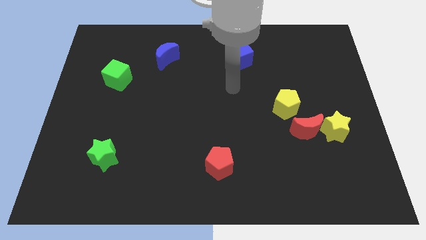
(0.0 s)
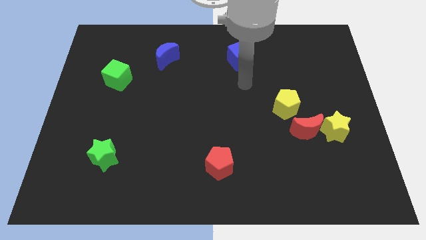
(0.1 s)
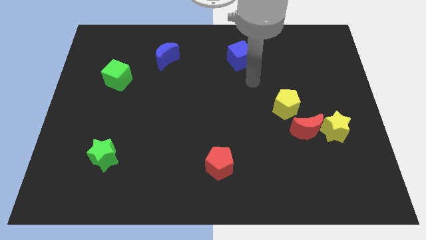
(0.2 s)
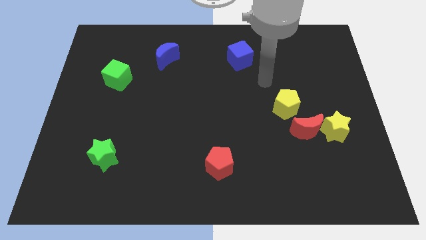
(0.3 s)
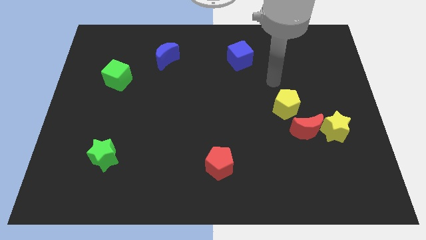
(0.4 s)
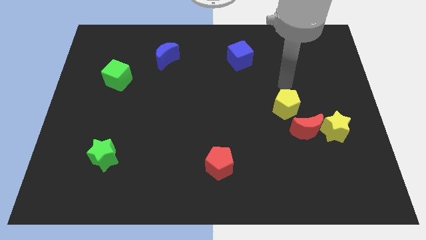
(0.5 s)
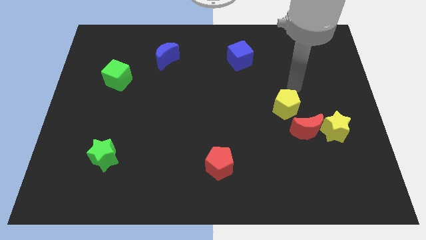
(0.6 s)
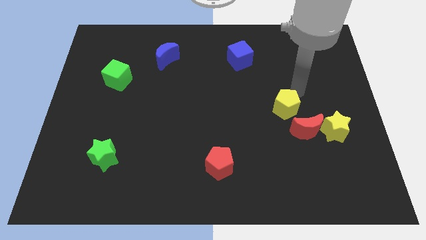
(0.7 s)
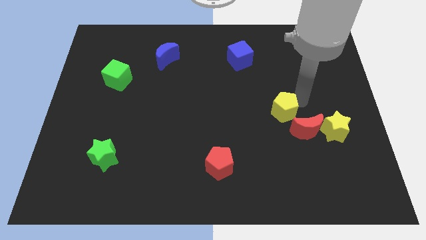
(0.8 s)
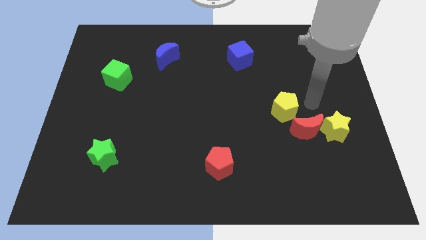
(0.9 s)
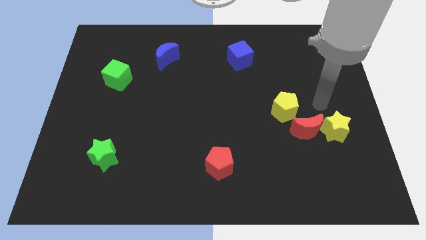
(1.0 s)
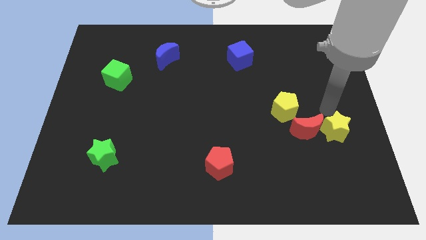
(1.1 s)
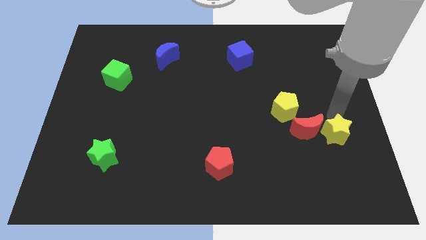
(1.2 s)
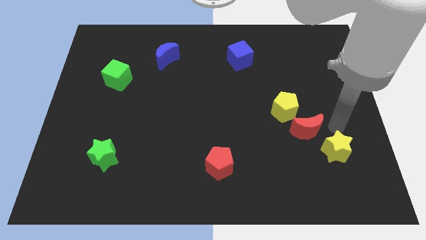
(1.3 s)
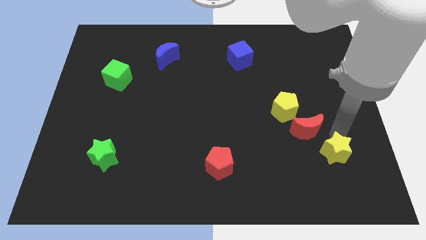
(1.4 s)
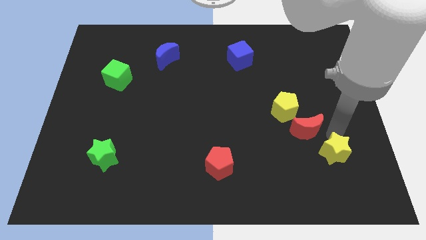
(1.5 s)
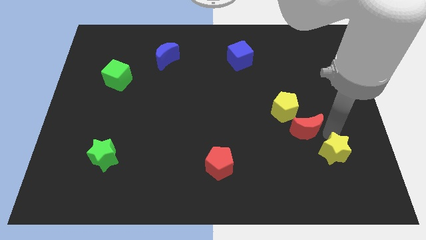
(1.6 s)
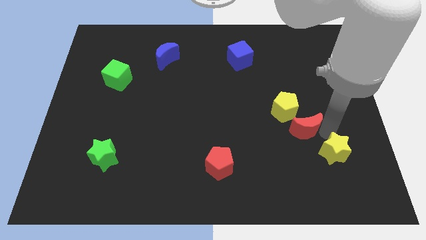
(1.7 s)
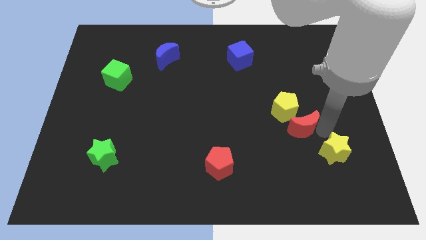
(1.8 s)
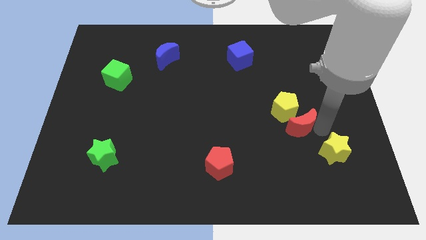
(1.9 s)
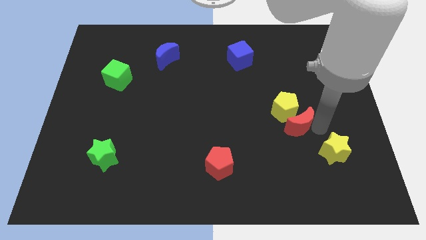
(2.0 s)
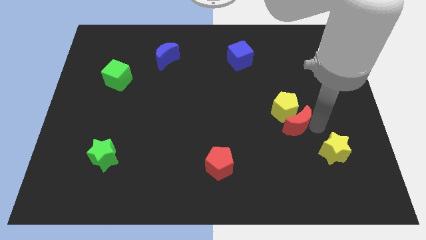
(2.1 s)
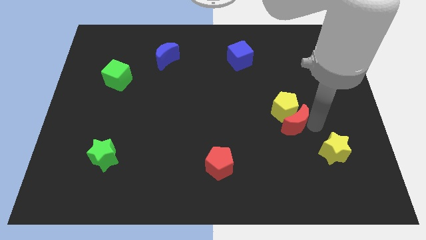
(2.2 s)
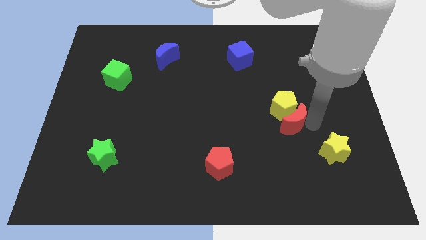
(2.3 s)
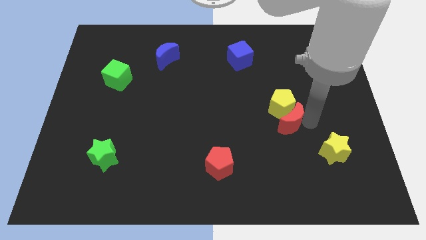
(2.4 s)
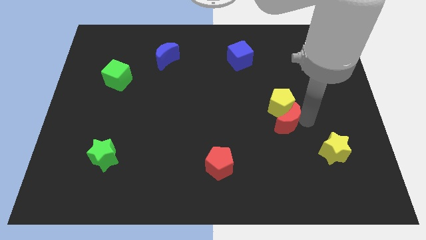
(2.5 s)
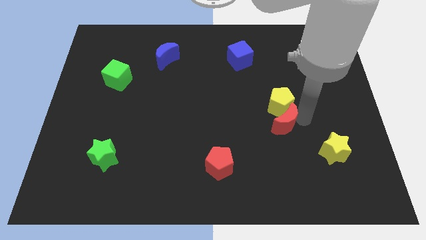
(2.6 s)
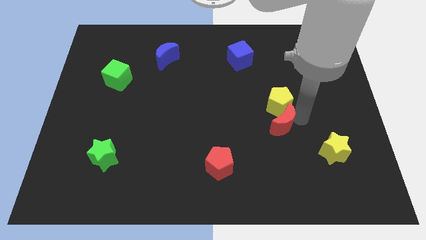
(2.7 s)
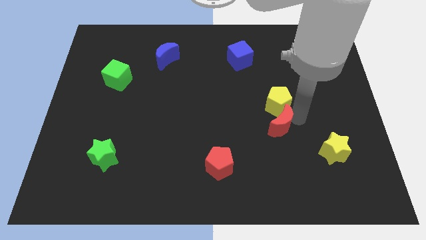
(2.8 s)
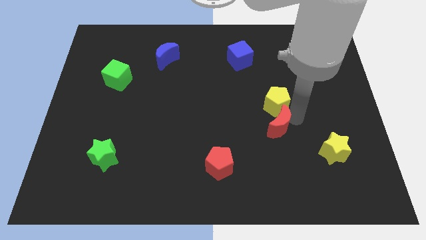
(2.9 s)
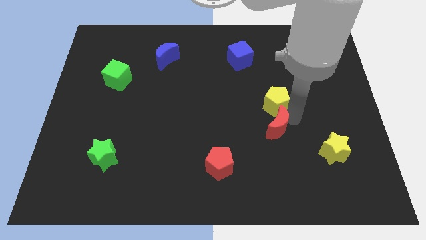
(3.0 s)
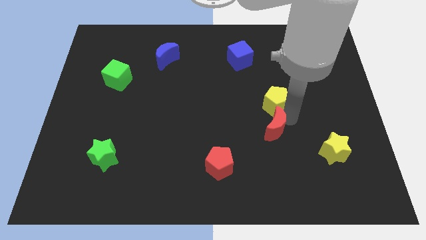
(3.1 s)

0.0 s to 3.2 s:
push the red moon a little bit to the left

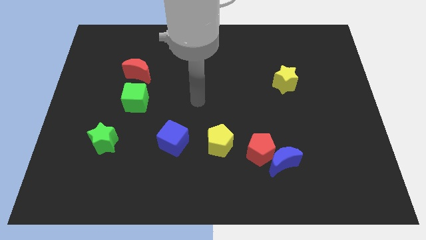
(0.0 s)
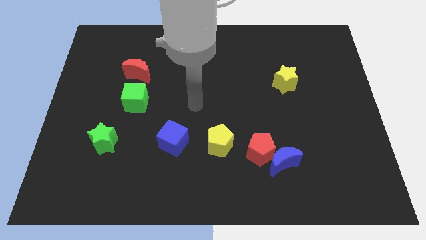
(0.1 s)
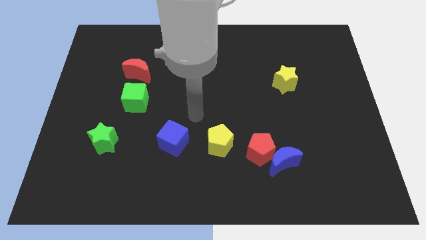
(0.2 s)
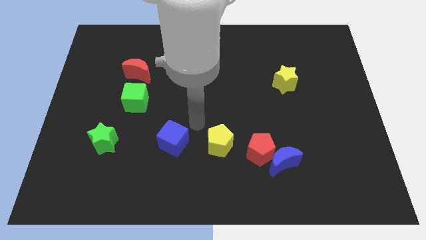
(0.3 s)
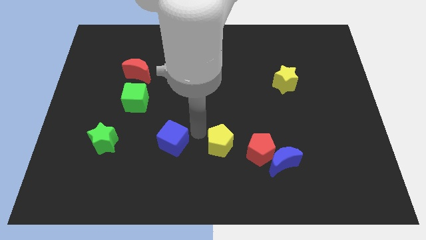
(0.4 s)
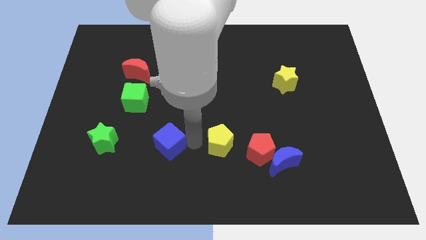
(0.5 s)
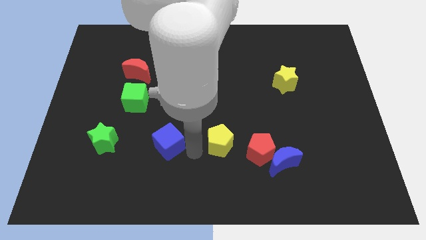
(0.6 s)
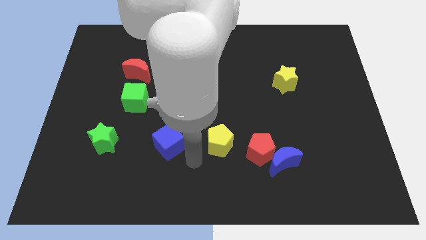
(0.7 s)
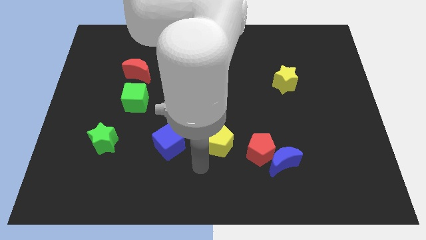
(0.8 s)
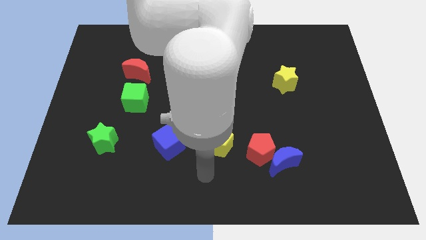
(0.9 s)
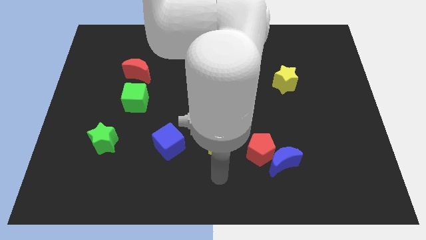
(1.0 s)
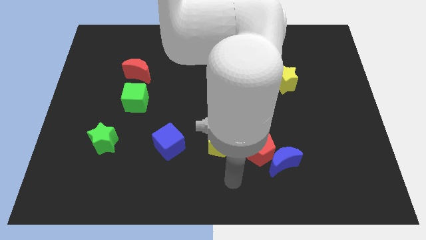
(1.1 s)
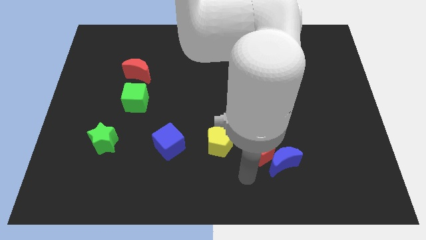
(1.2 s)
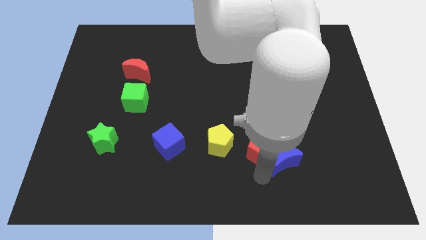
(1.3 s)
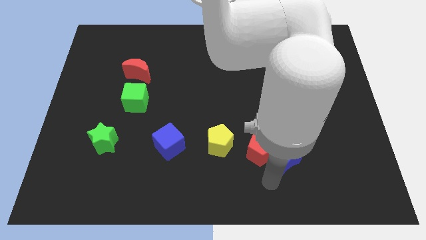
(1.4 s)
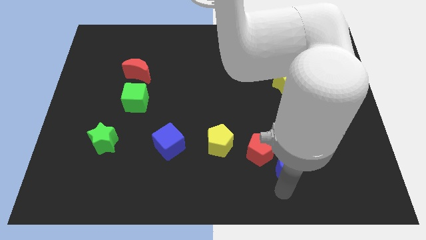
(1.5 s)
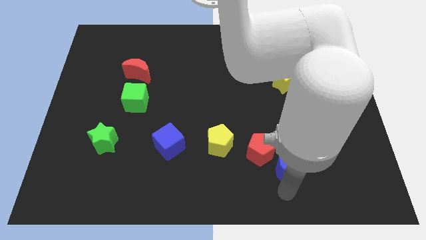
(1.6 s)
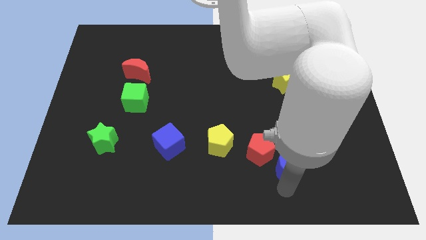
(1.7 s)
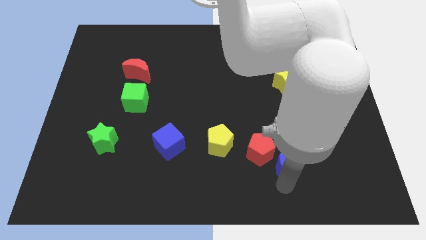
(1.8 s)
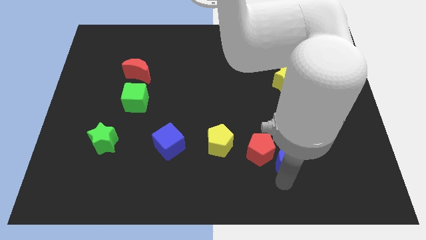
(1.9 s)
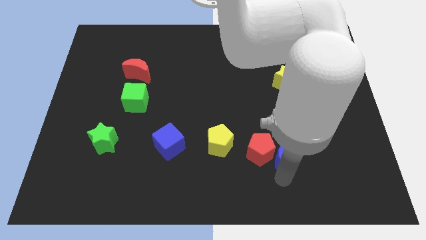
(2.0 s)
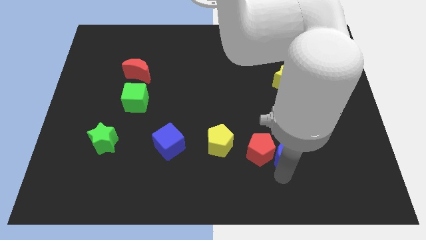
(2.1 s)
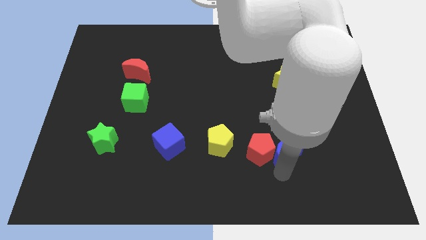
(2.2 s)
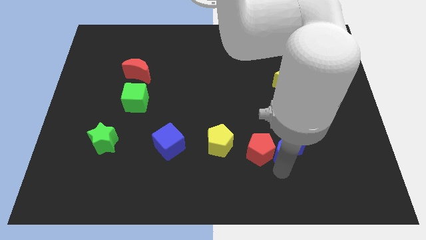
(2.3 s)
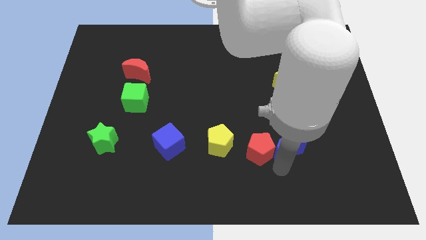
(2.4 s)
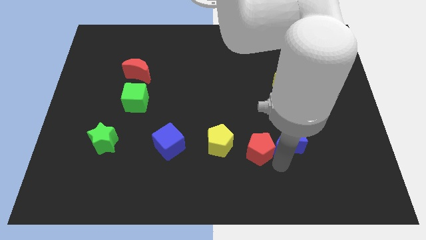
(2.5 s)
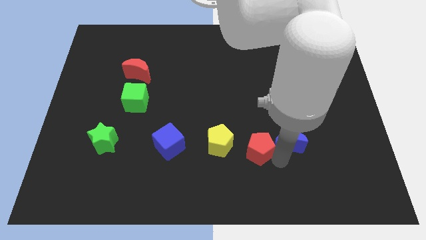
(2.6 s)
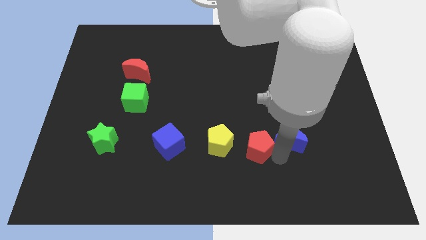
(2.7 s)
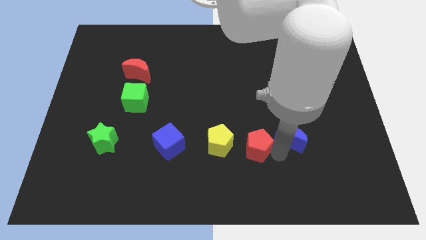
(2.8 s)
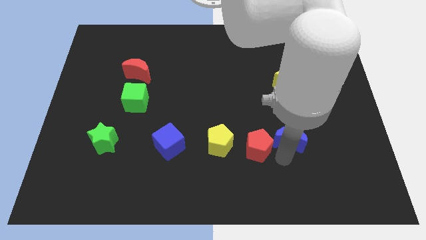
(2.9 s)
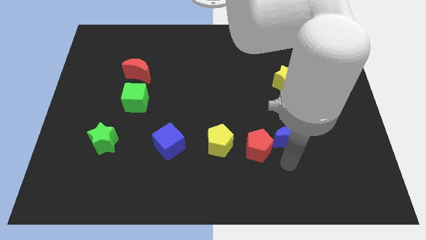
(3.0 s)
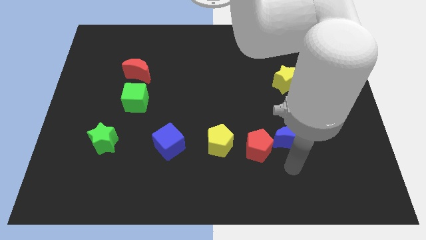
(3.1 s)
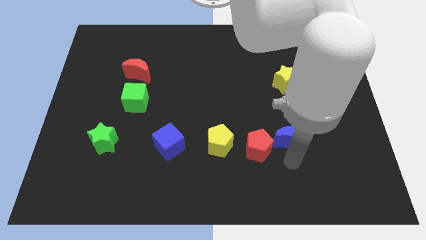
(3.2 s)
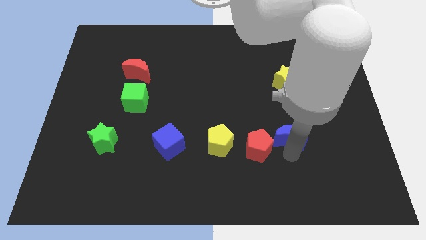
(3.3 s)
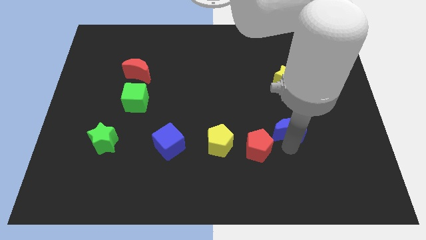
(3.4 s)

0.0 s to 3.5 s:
move the blue moon upwards a little

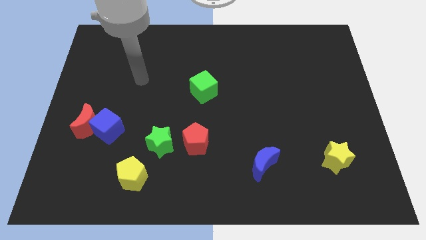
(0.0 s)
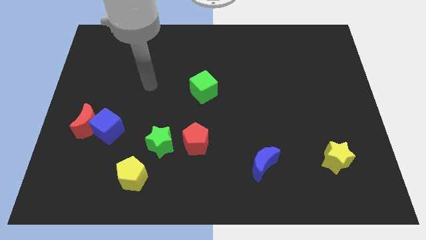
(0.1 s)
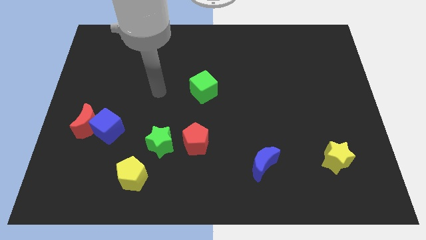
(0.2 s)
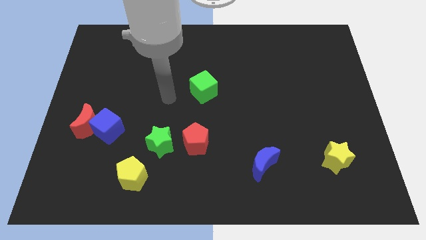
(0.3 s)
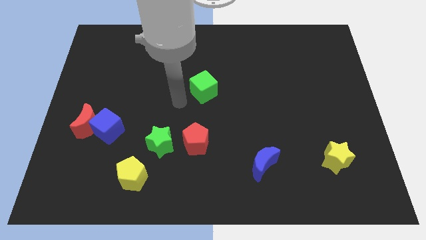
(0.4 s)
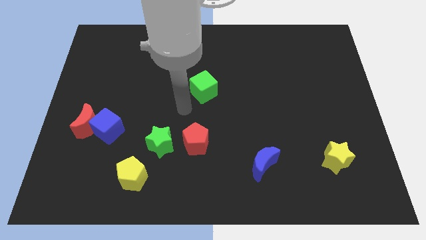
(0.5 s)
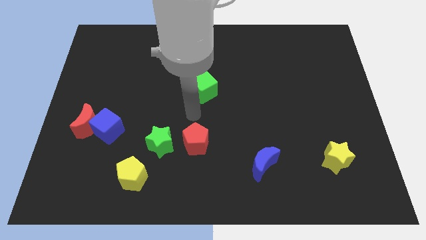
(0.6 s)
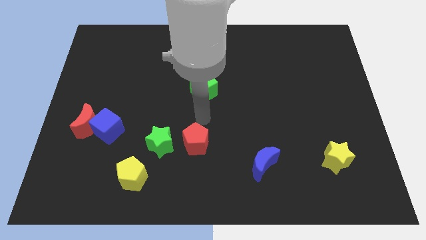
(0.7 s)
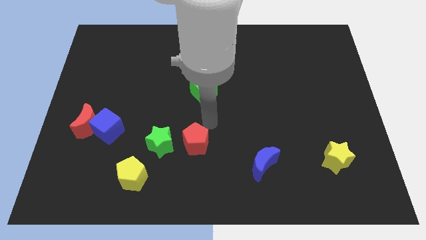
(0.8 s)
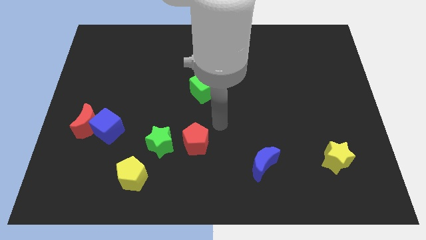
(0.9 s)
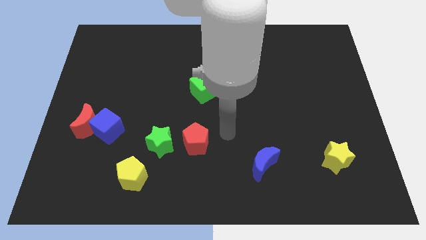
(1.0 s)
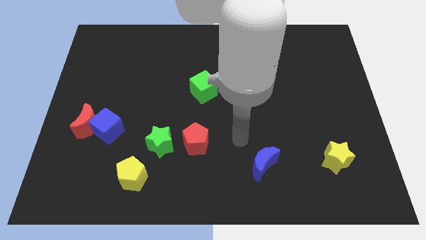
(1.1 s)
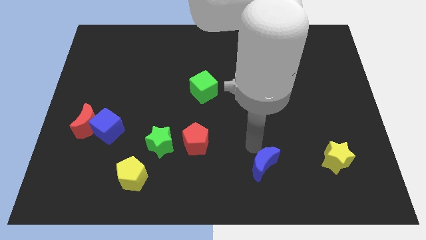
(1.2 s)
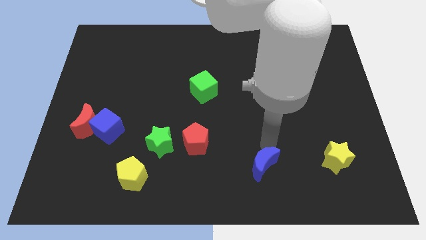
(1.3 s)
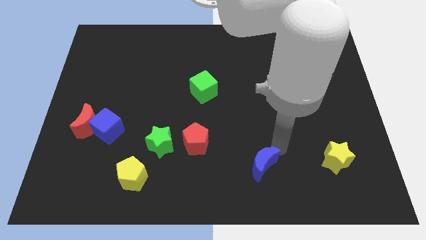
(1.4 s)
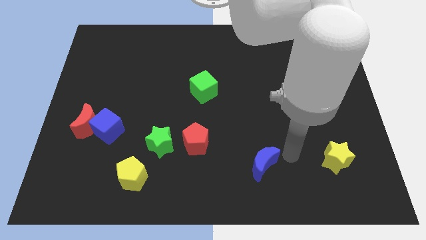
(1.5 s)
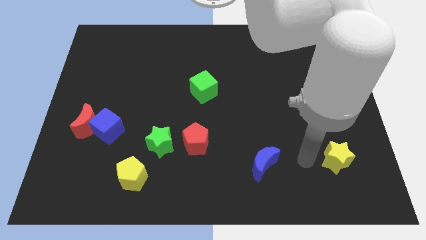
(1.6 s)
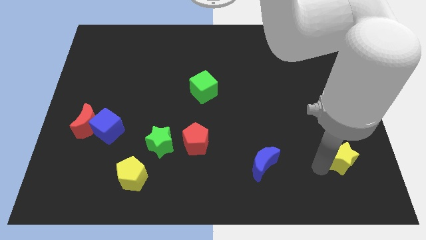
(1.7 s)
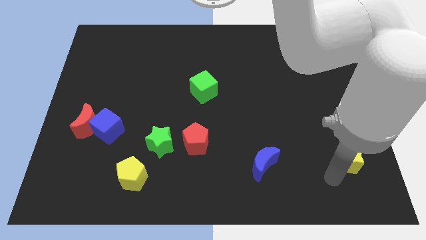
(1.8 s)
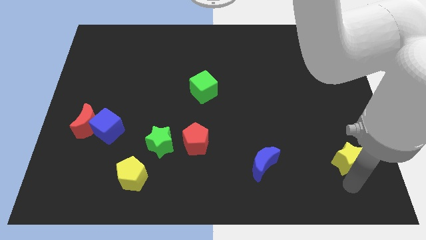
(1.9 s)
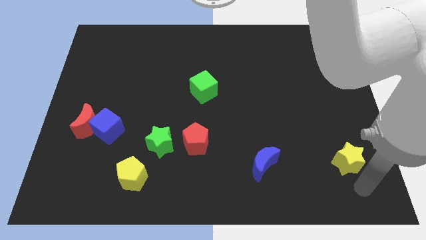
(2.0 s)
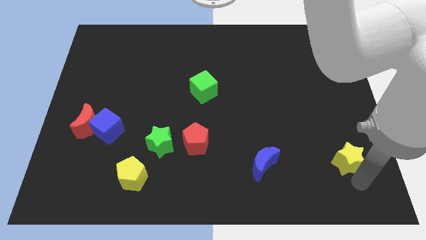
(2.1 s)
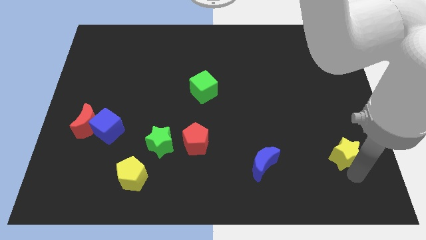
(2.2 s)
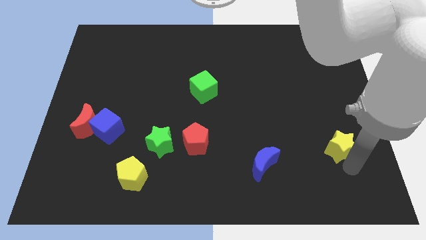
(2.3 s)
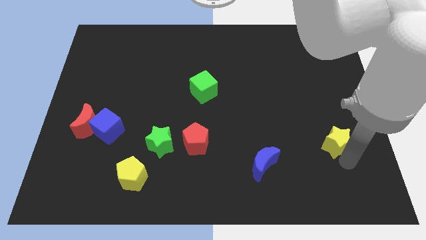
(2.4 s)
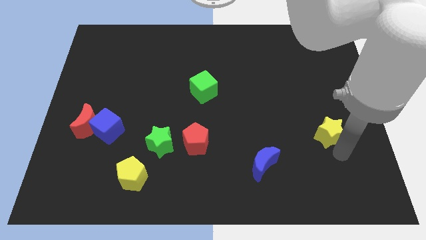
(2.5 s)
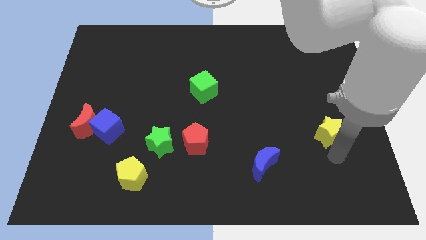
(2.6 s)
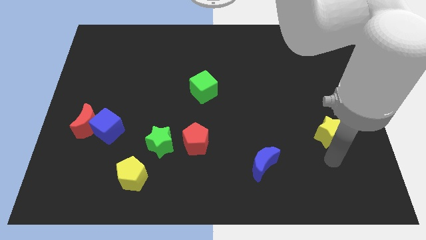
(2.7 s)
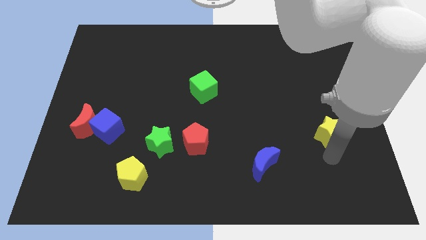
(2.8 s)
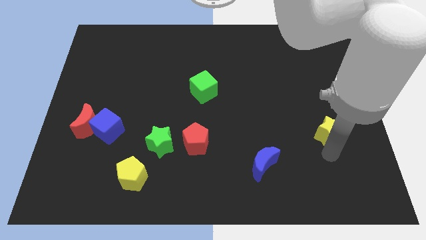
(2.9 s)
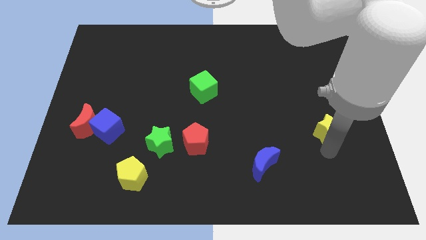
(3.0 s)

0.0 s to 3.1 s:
push the yellow star up a little
